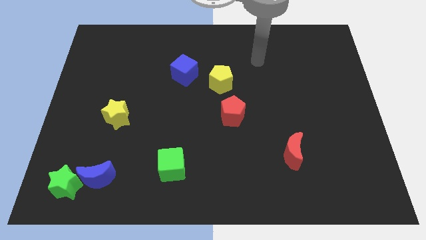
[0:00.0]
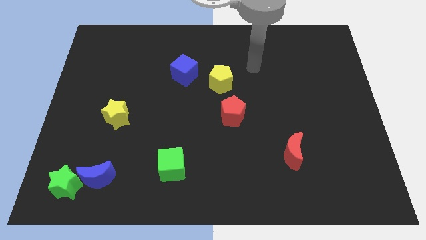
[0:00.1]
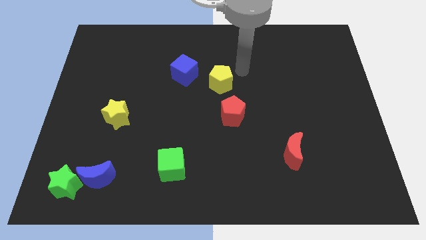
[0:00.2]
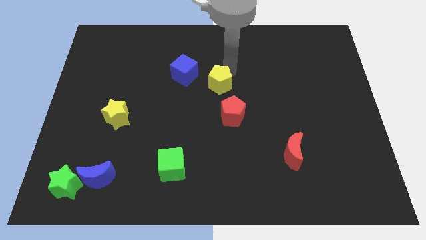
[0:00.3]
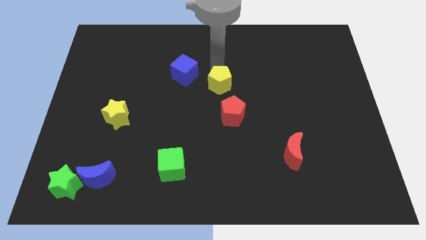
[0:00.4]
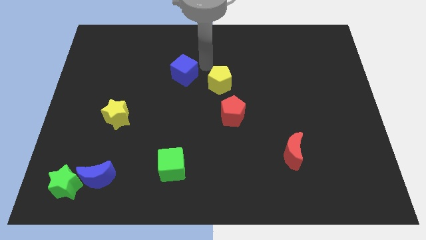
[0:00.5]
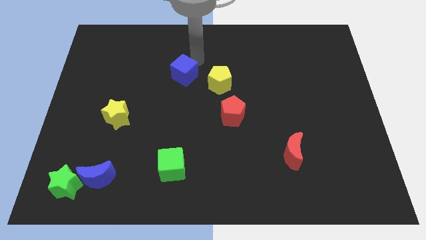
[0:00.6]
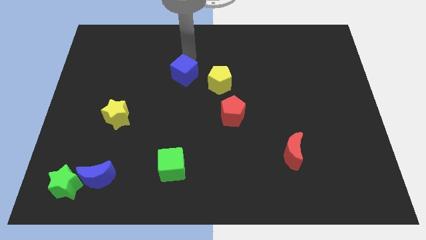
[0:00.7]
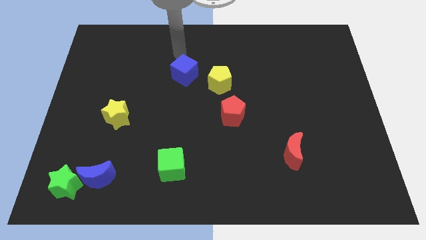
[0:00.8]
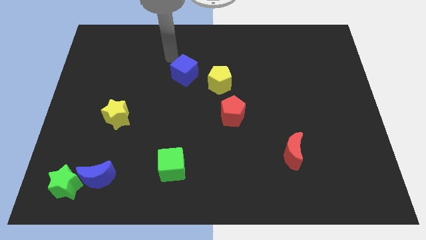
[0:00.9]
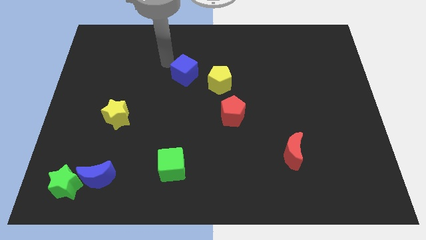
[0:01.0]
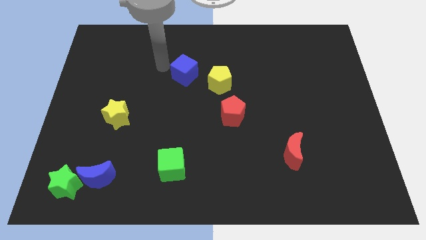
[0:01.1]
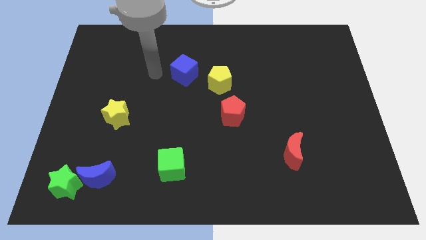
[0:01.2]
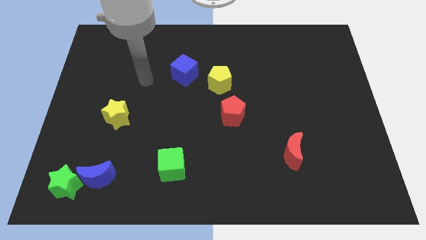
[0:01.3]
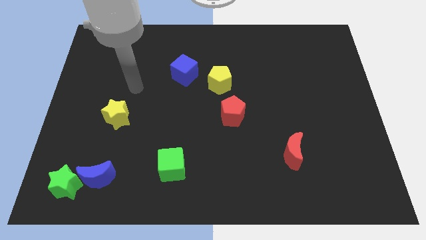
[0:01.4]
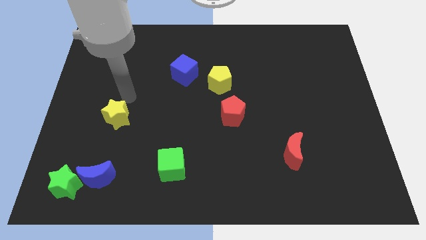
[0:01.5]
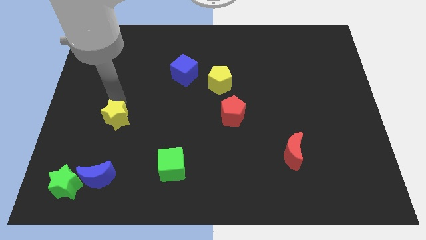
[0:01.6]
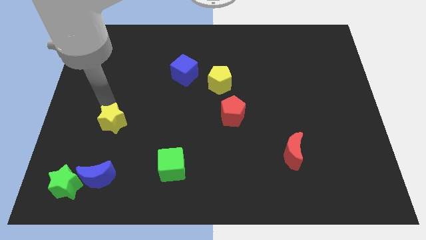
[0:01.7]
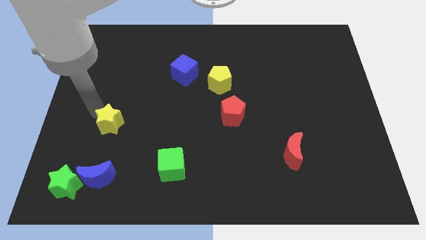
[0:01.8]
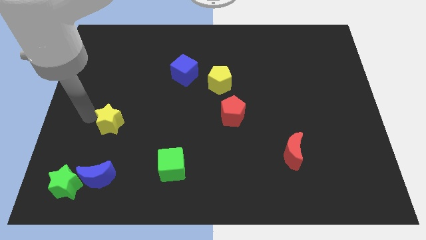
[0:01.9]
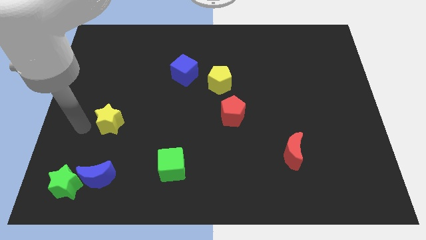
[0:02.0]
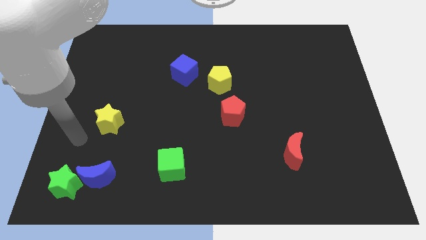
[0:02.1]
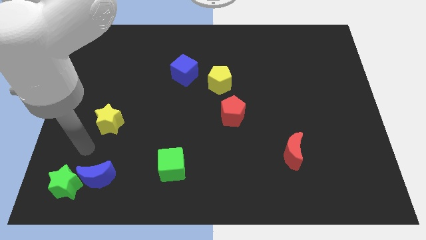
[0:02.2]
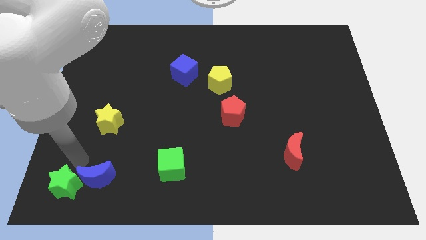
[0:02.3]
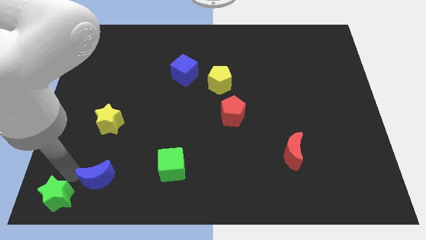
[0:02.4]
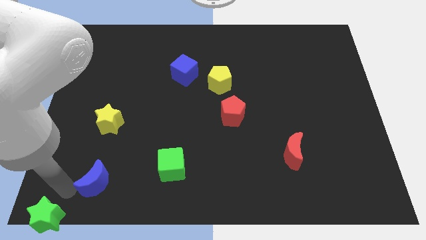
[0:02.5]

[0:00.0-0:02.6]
separate the blue moon from the green star

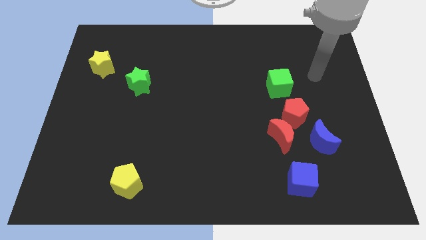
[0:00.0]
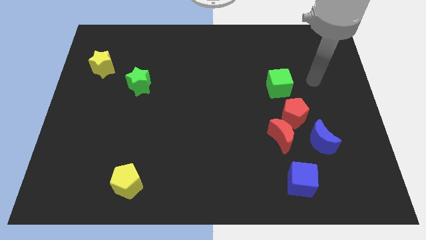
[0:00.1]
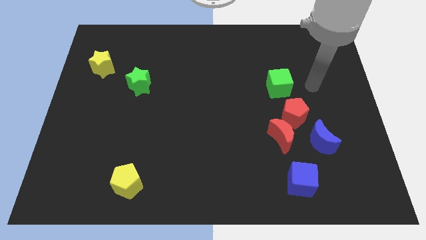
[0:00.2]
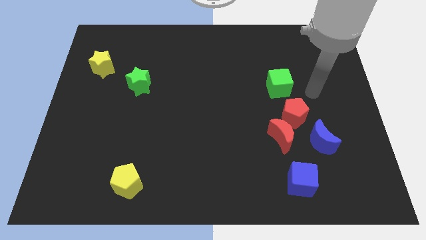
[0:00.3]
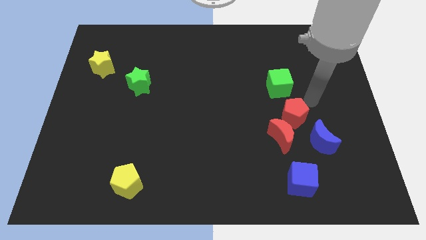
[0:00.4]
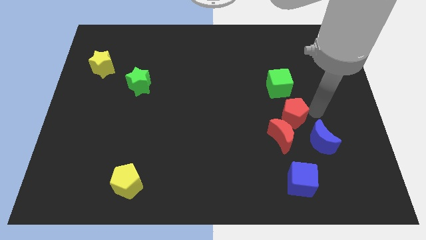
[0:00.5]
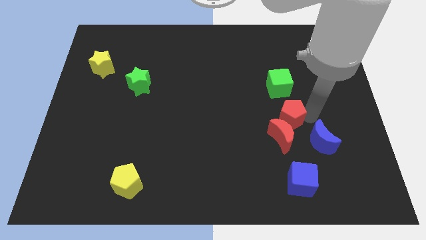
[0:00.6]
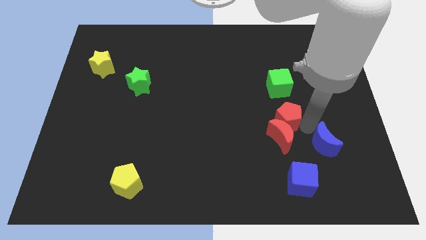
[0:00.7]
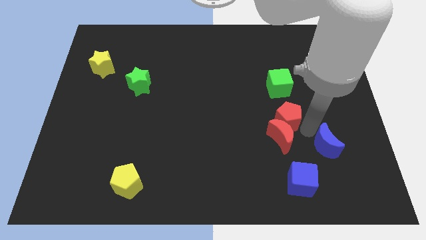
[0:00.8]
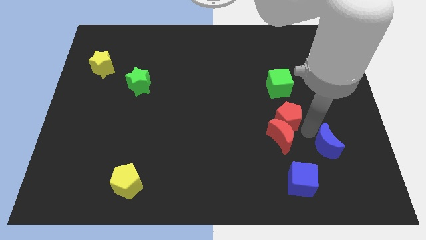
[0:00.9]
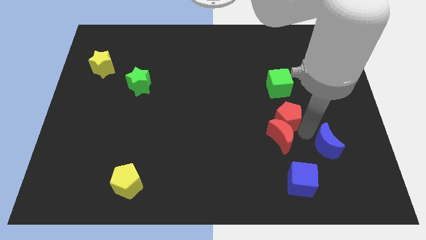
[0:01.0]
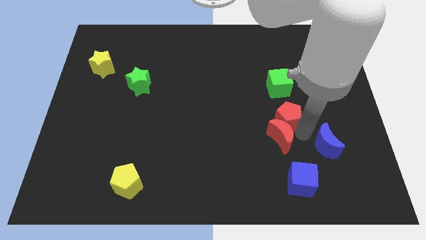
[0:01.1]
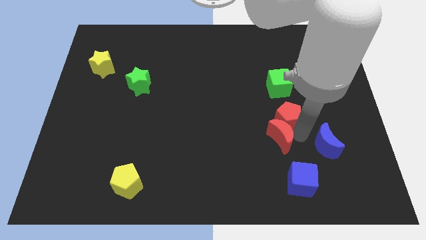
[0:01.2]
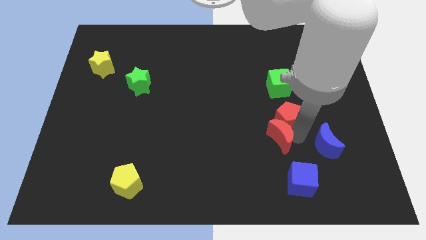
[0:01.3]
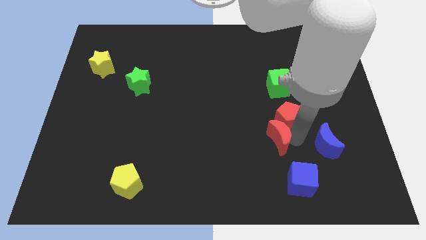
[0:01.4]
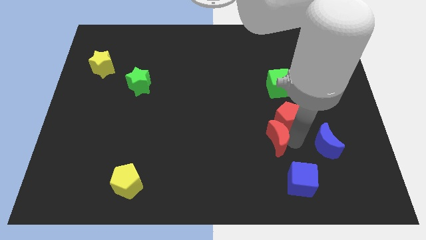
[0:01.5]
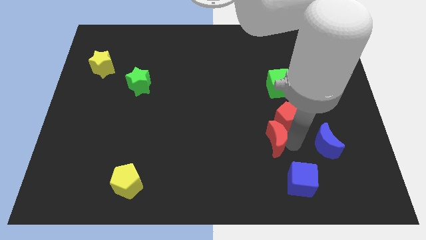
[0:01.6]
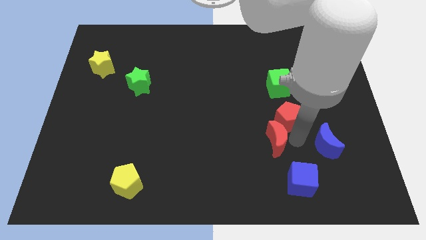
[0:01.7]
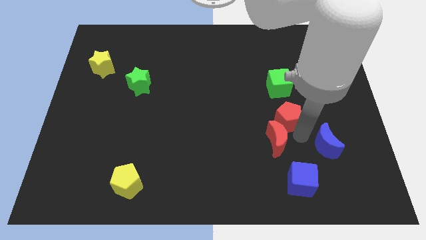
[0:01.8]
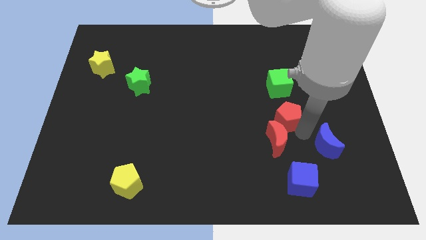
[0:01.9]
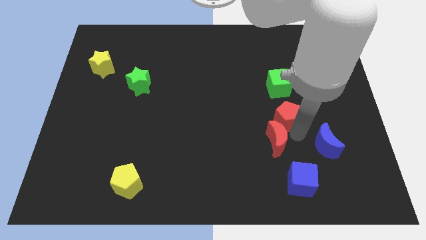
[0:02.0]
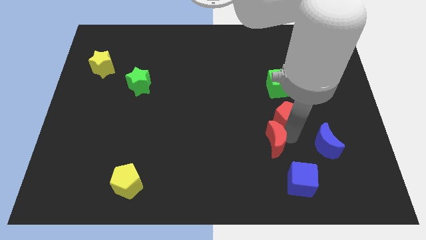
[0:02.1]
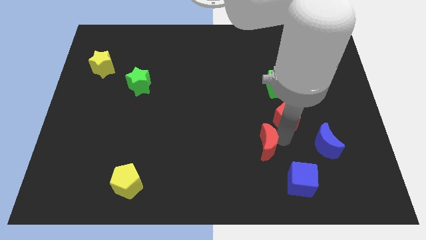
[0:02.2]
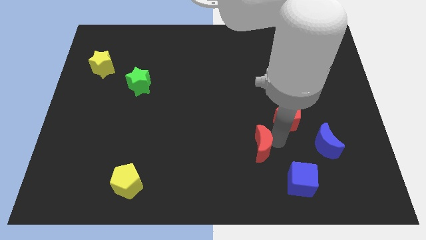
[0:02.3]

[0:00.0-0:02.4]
separate the red moon from the red pentagon and blue moon

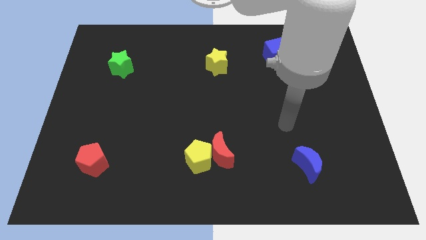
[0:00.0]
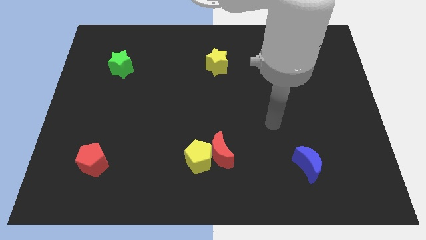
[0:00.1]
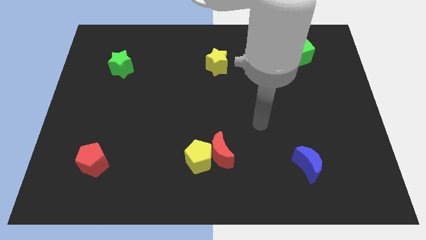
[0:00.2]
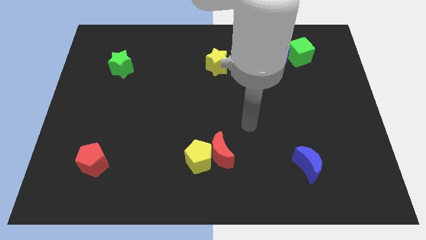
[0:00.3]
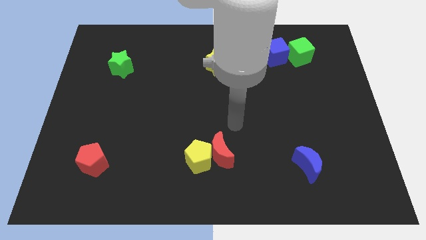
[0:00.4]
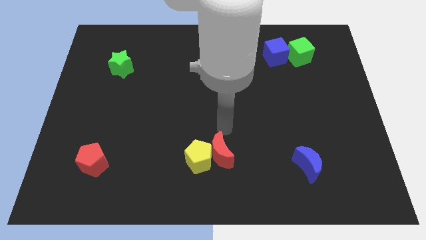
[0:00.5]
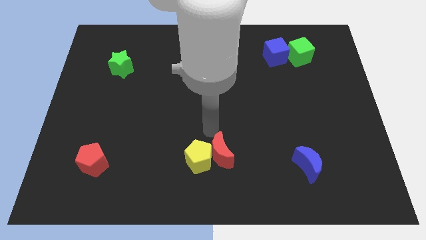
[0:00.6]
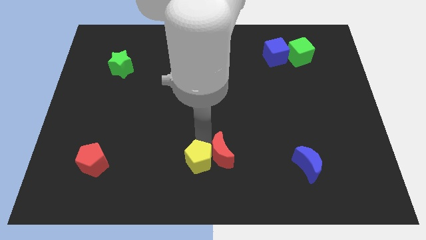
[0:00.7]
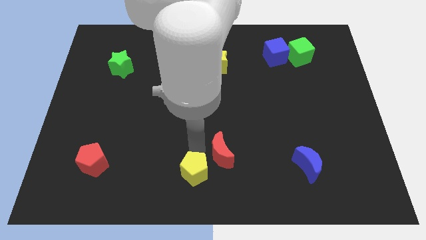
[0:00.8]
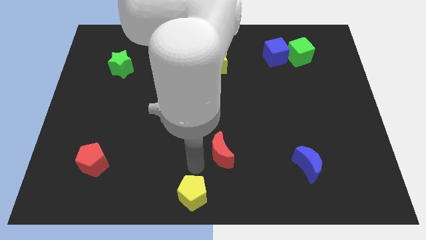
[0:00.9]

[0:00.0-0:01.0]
separate the red moon from the yellow pentagon

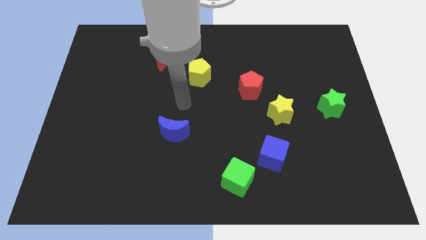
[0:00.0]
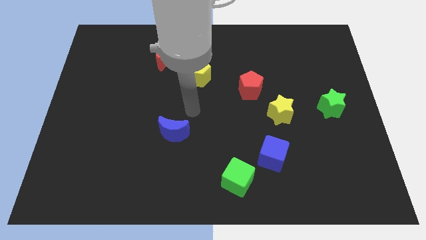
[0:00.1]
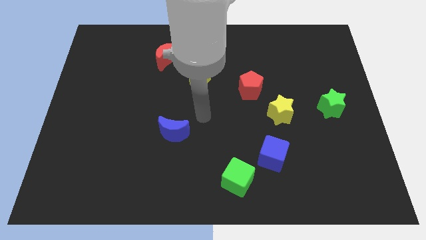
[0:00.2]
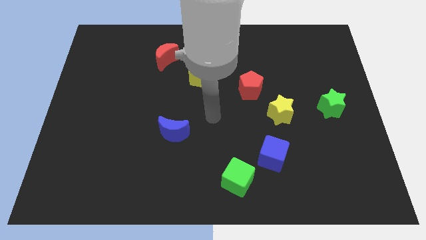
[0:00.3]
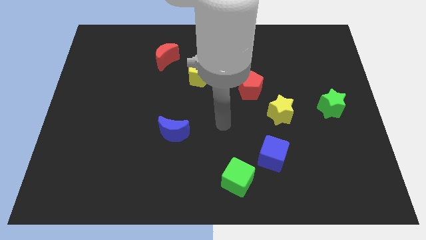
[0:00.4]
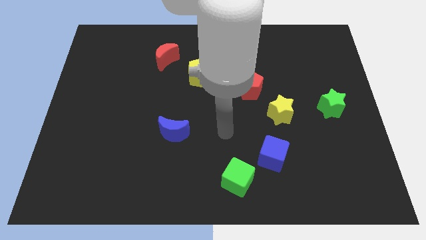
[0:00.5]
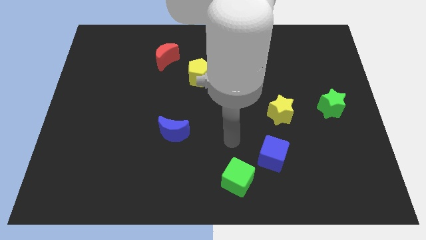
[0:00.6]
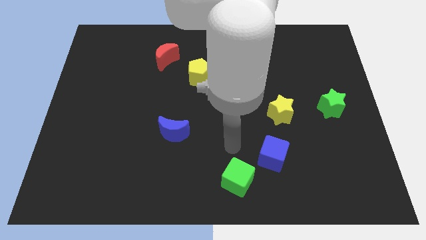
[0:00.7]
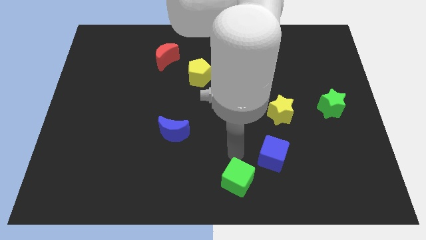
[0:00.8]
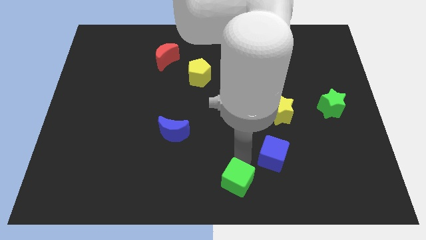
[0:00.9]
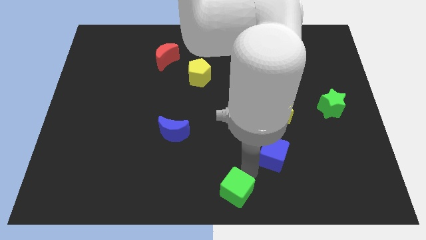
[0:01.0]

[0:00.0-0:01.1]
move the blue cube away from the green cube

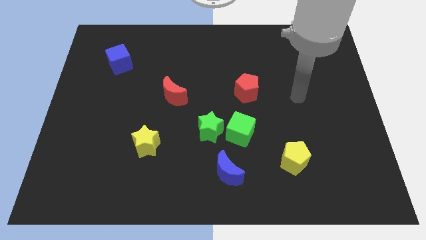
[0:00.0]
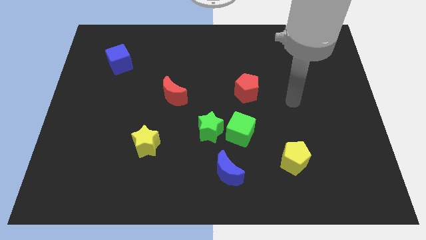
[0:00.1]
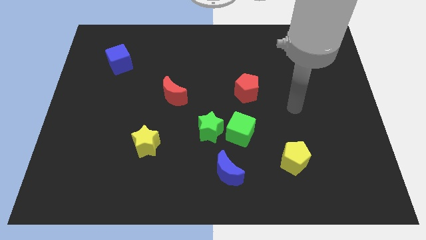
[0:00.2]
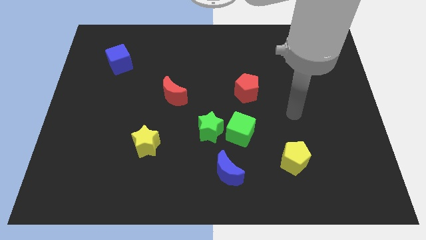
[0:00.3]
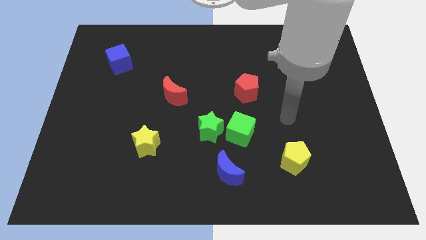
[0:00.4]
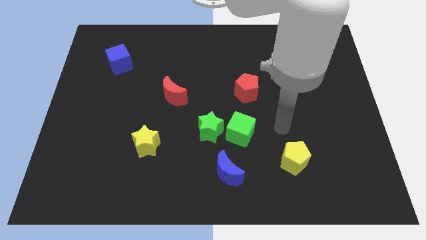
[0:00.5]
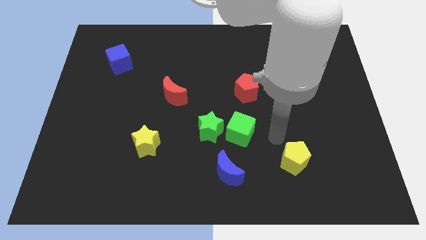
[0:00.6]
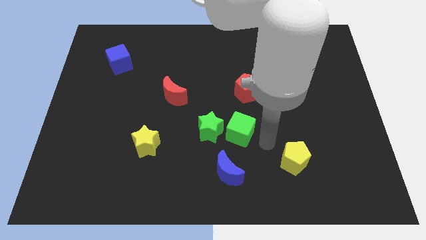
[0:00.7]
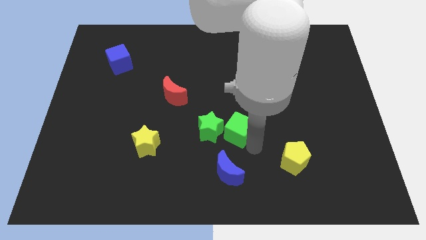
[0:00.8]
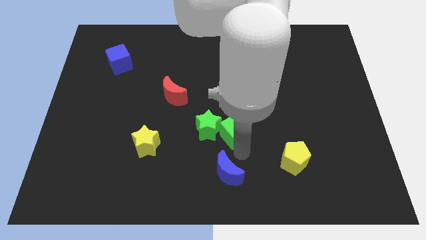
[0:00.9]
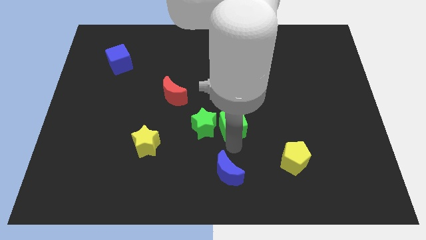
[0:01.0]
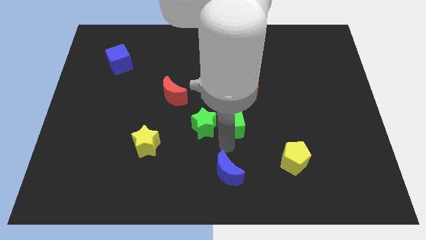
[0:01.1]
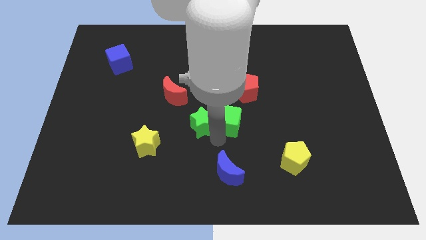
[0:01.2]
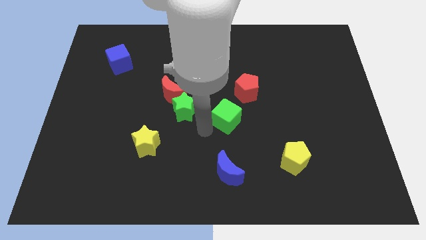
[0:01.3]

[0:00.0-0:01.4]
separate the green cube from the green star

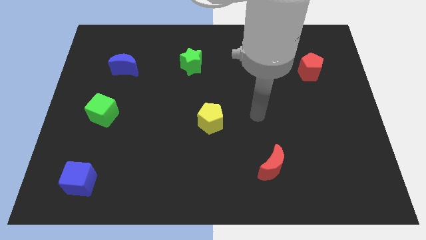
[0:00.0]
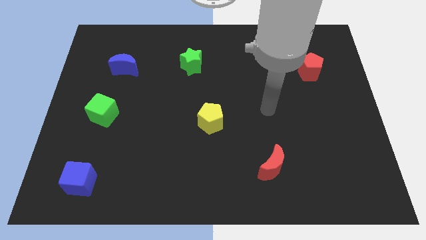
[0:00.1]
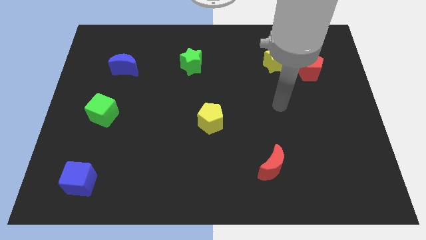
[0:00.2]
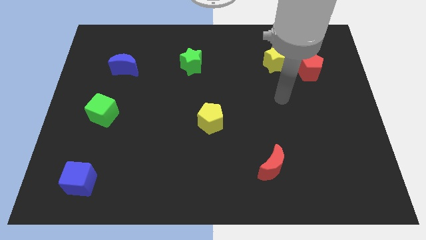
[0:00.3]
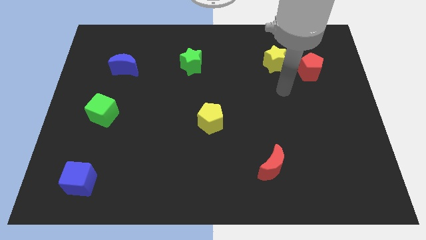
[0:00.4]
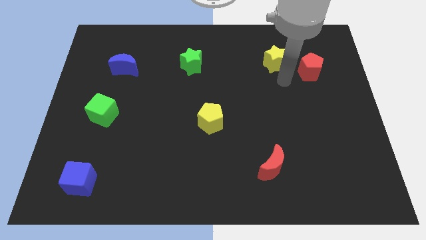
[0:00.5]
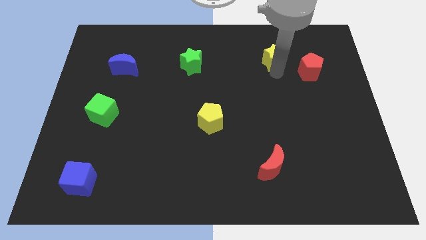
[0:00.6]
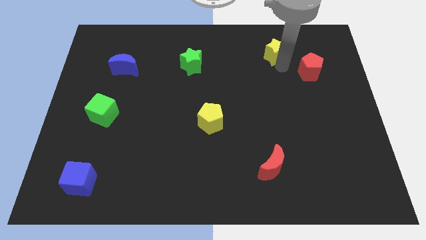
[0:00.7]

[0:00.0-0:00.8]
separate the red pentagon from the yellow star

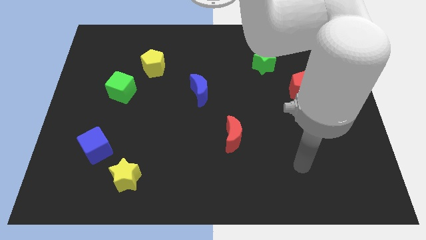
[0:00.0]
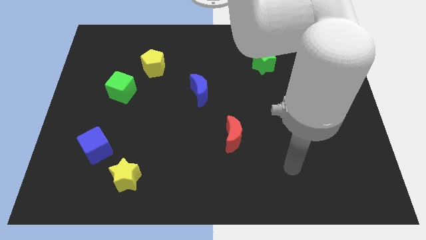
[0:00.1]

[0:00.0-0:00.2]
separate the blue cube from the yellow star
